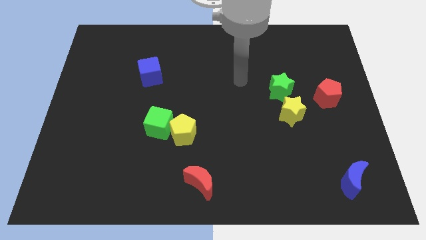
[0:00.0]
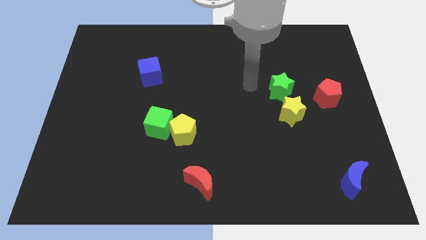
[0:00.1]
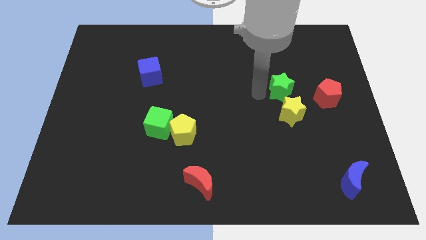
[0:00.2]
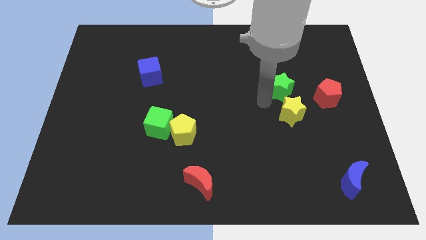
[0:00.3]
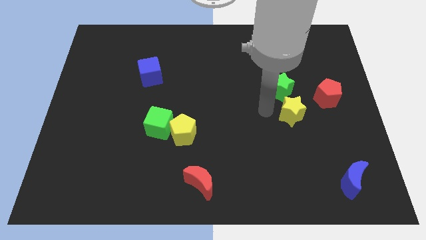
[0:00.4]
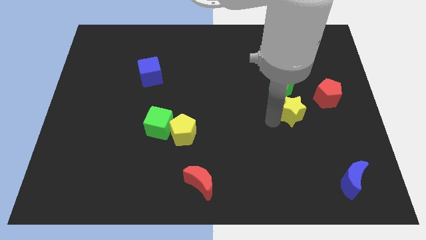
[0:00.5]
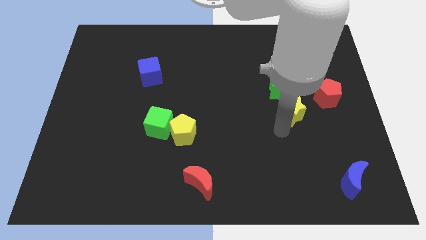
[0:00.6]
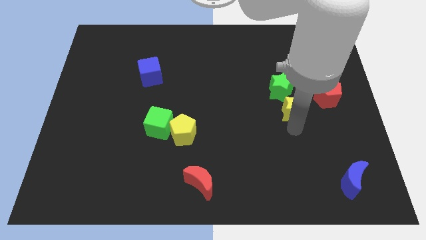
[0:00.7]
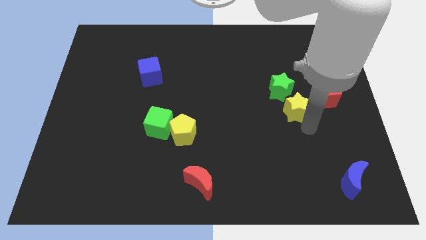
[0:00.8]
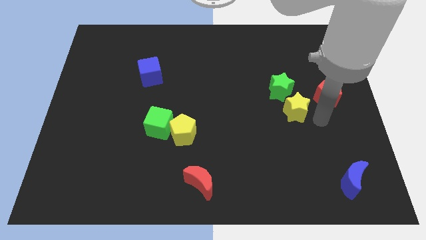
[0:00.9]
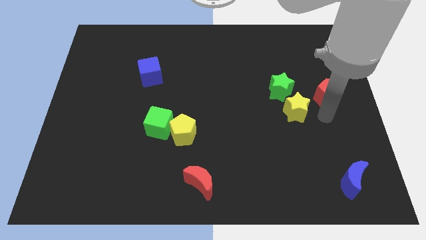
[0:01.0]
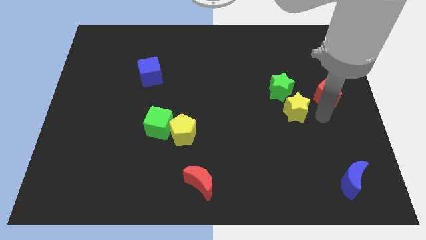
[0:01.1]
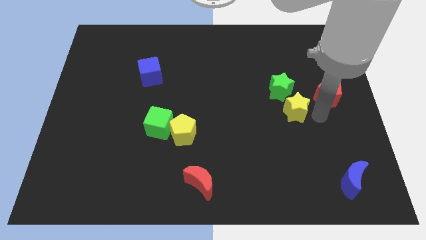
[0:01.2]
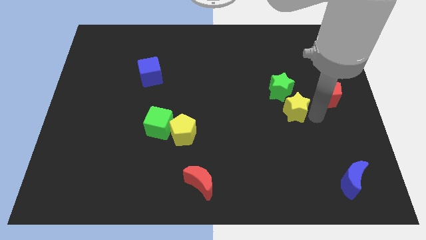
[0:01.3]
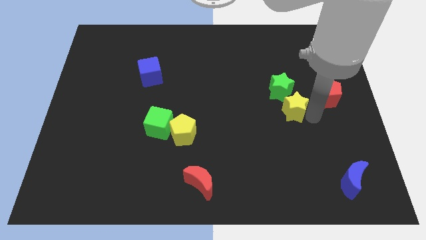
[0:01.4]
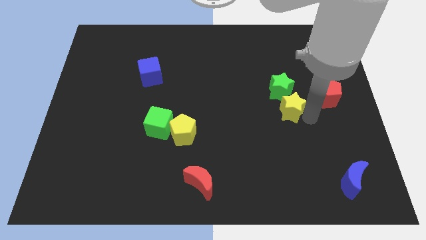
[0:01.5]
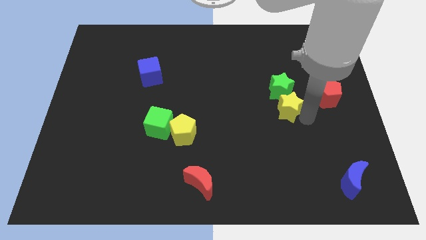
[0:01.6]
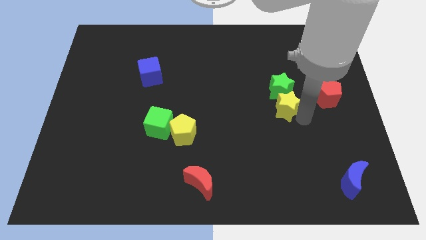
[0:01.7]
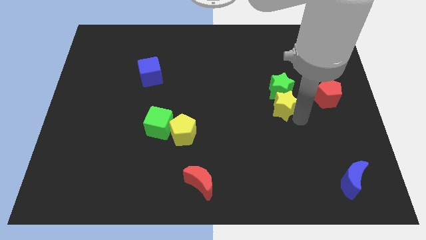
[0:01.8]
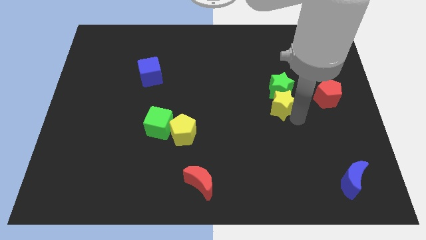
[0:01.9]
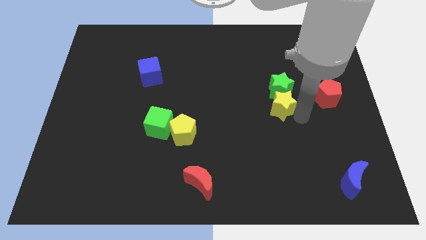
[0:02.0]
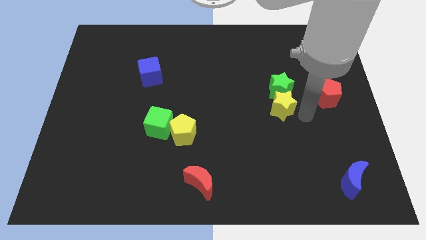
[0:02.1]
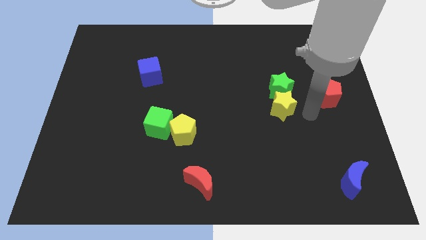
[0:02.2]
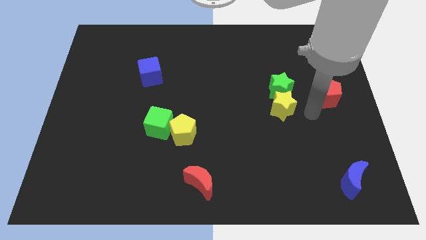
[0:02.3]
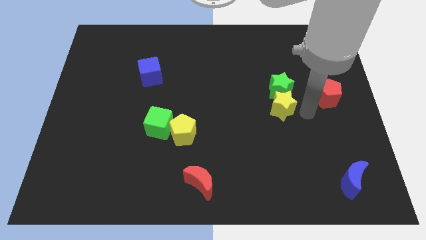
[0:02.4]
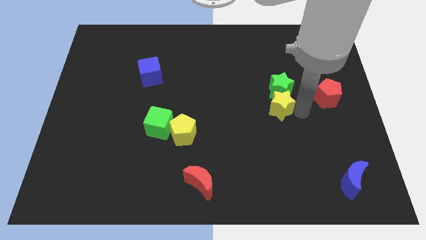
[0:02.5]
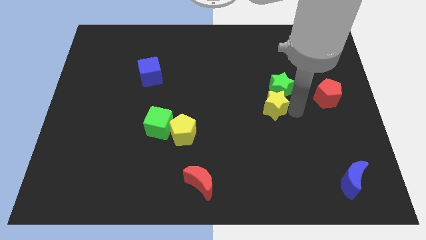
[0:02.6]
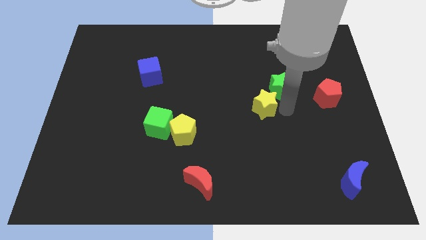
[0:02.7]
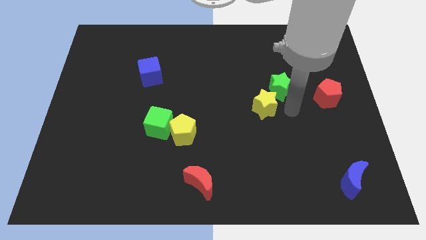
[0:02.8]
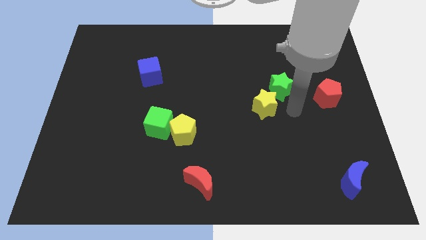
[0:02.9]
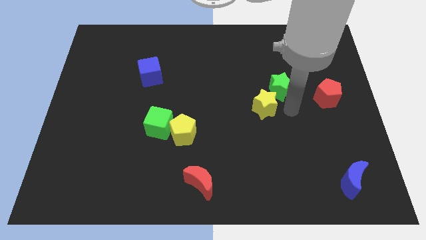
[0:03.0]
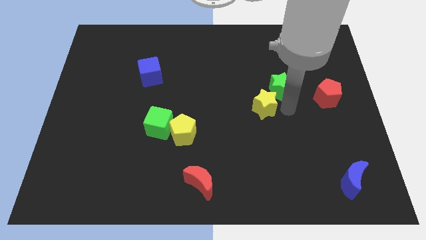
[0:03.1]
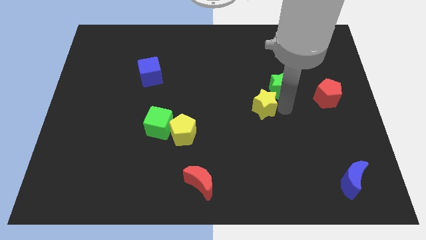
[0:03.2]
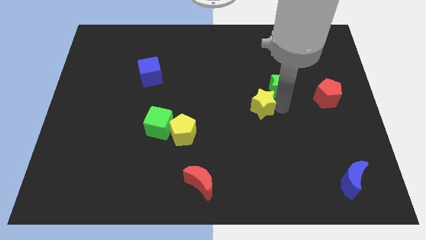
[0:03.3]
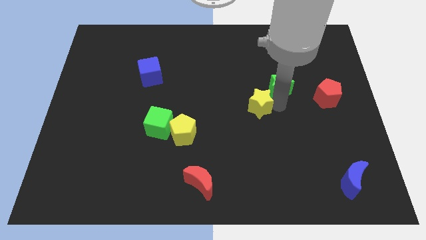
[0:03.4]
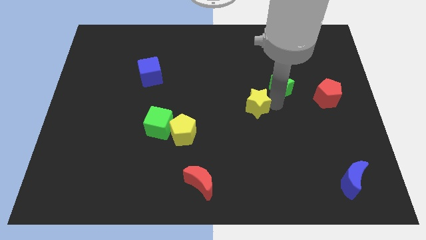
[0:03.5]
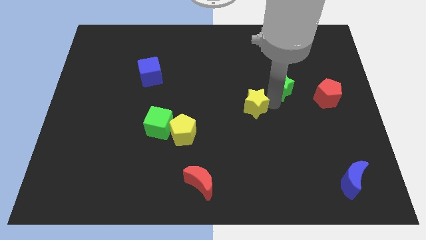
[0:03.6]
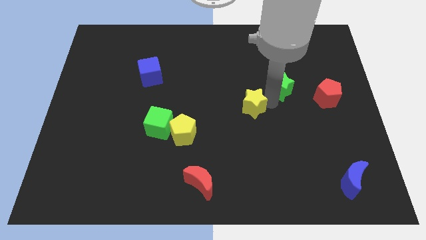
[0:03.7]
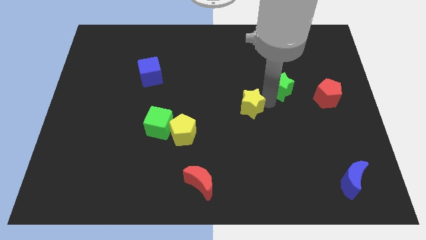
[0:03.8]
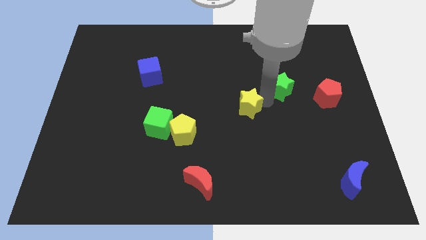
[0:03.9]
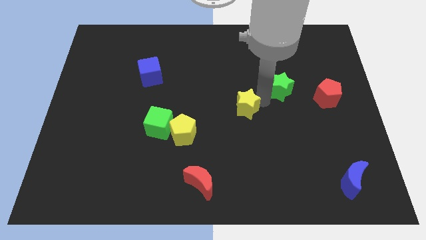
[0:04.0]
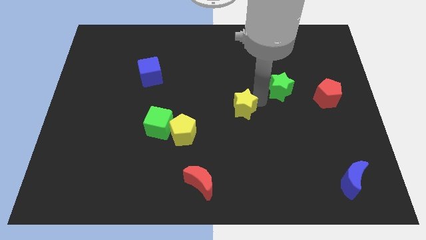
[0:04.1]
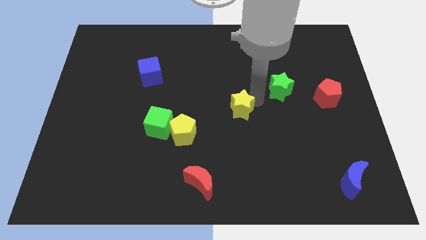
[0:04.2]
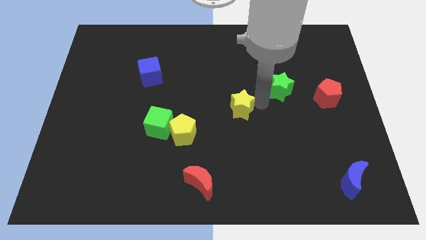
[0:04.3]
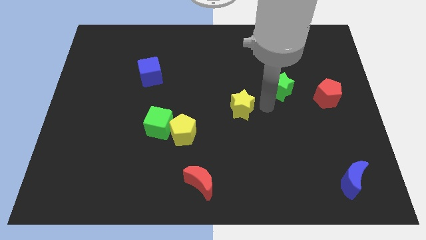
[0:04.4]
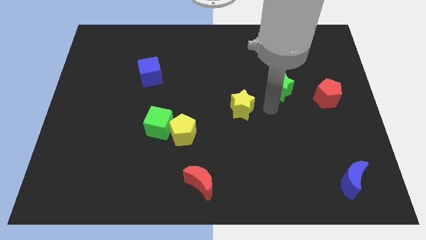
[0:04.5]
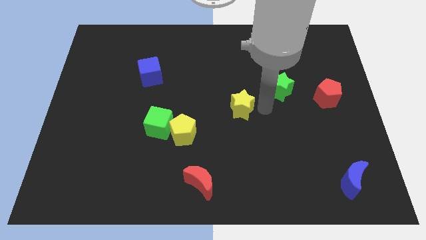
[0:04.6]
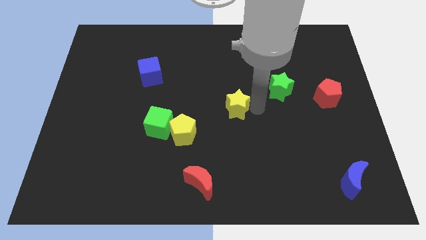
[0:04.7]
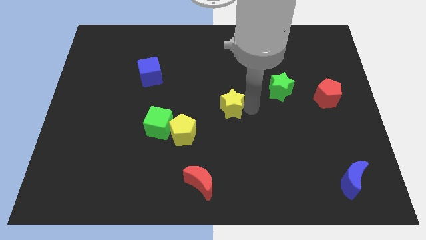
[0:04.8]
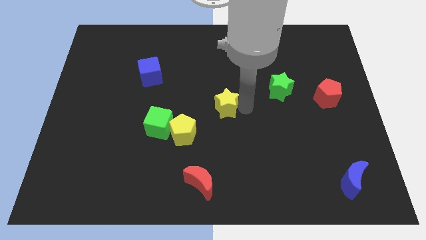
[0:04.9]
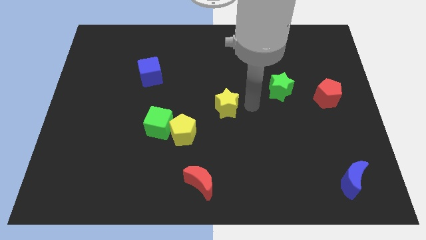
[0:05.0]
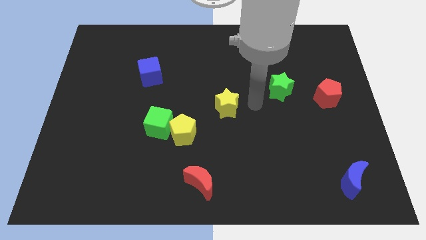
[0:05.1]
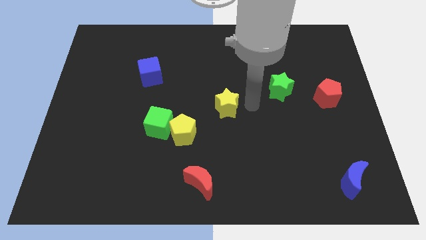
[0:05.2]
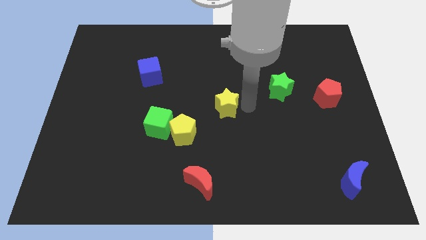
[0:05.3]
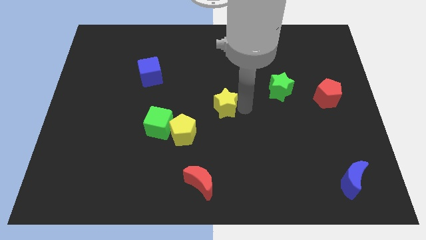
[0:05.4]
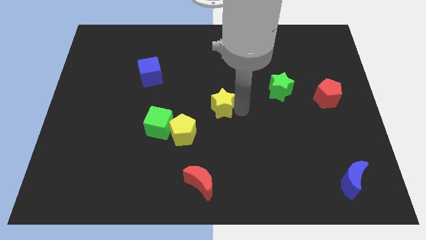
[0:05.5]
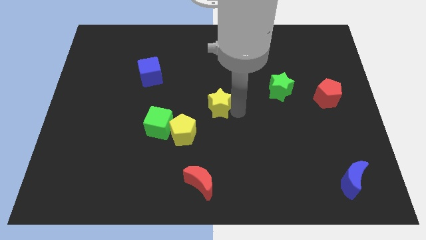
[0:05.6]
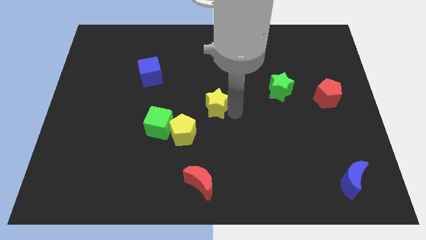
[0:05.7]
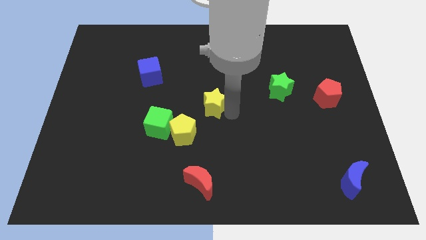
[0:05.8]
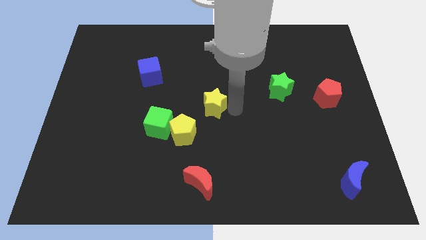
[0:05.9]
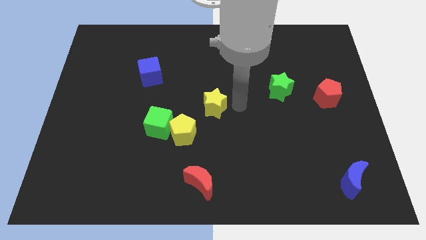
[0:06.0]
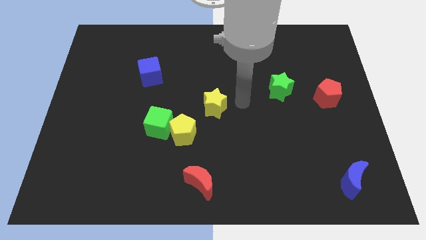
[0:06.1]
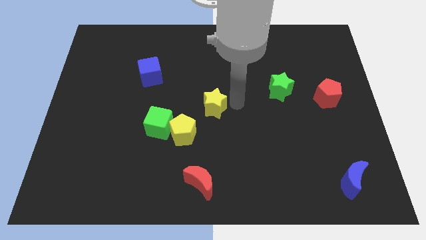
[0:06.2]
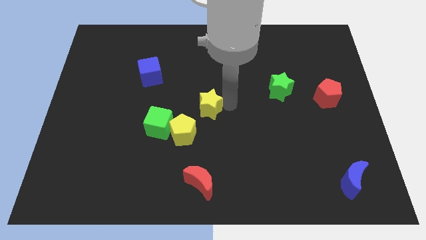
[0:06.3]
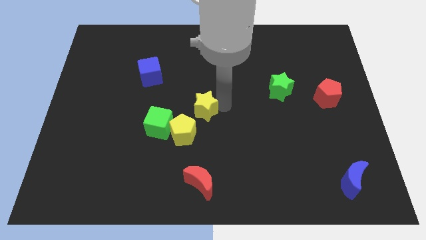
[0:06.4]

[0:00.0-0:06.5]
move the yellow star left

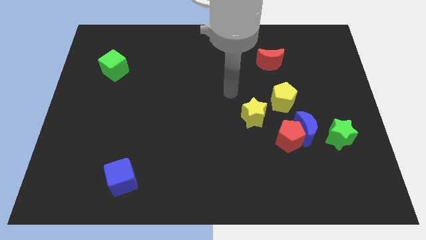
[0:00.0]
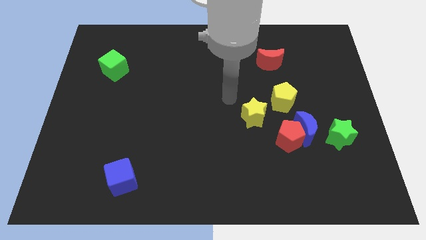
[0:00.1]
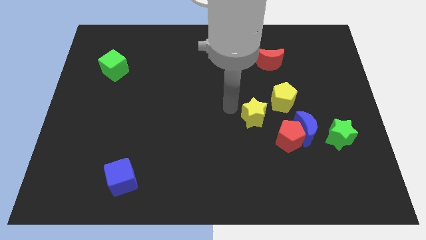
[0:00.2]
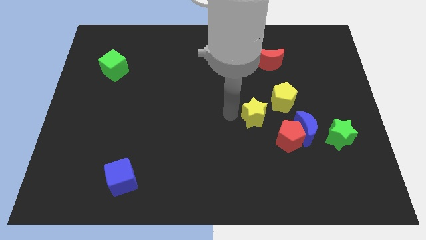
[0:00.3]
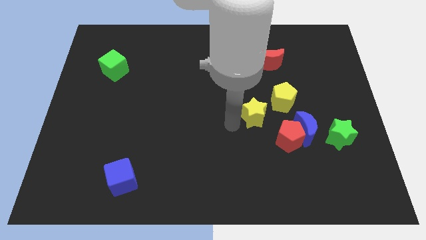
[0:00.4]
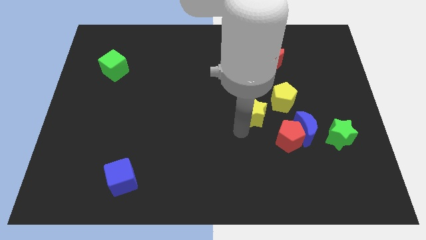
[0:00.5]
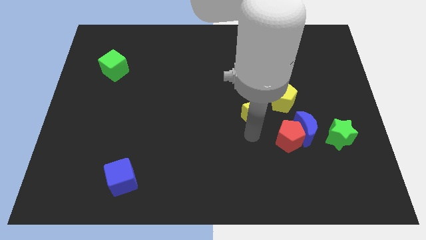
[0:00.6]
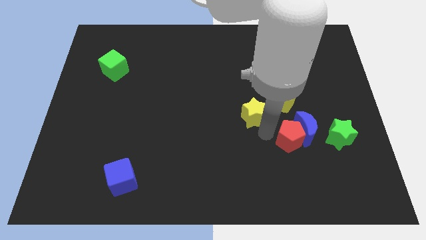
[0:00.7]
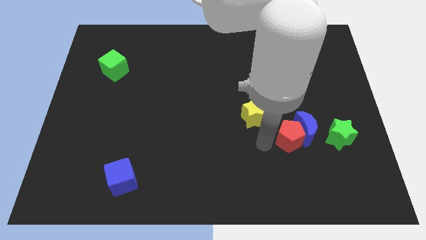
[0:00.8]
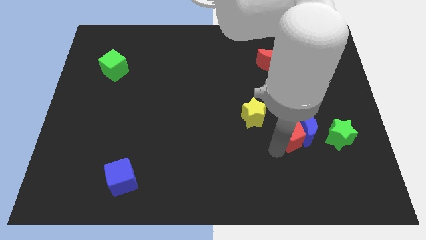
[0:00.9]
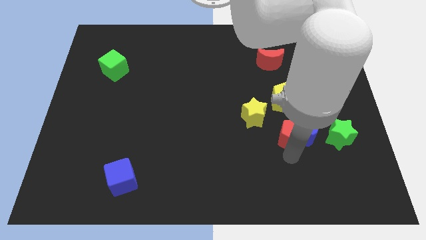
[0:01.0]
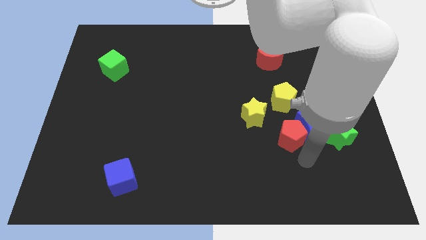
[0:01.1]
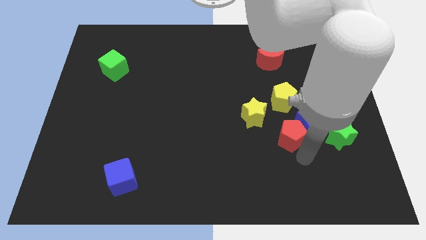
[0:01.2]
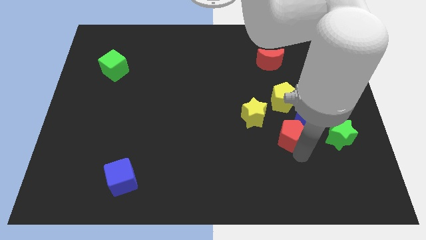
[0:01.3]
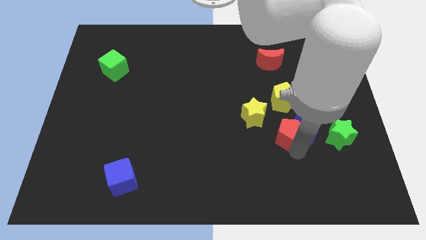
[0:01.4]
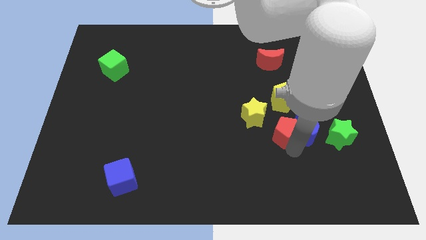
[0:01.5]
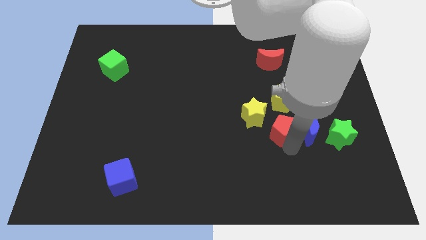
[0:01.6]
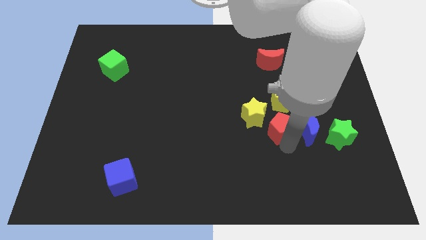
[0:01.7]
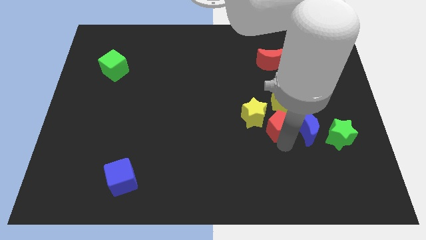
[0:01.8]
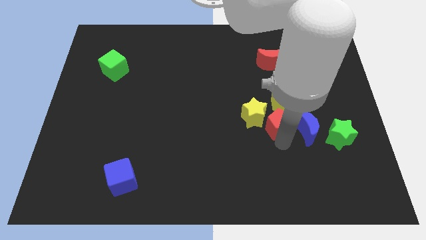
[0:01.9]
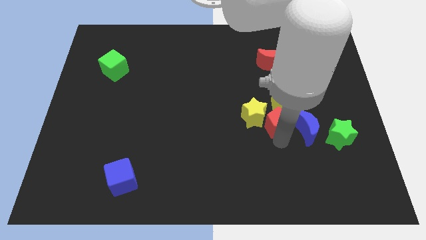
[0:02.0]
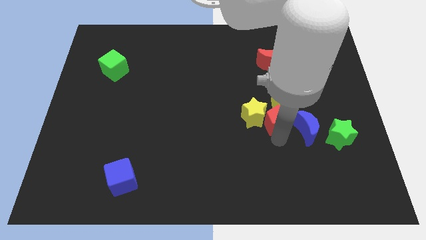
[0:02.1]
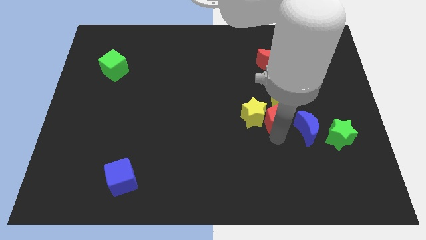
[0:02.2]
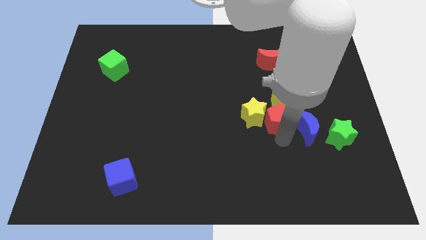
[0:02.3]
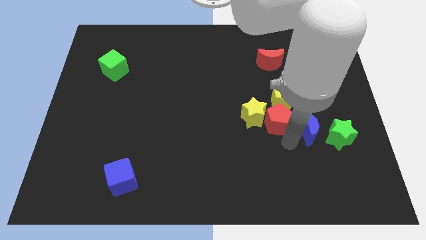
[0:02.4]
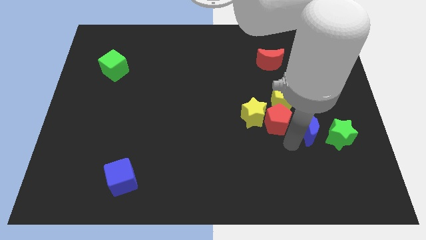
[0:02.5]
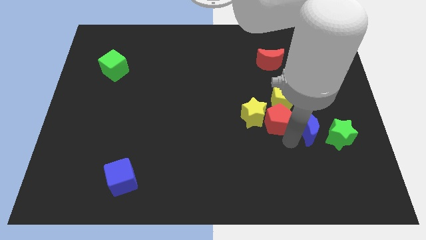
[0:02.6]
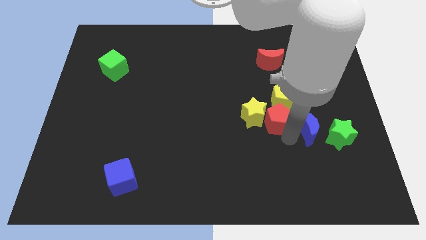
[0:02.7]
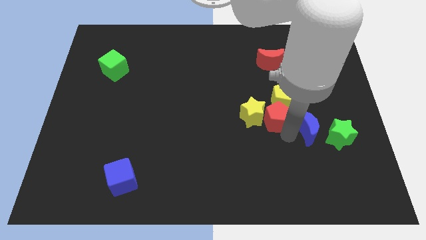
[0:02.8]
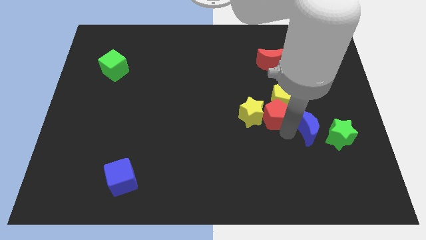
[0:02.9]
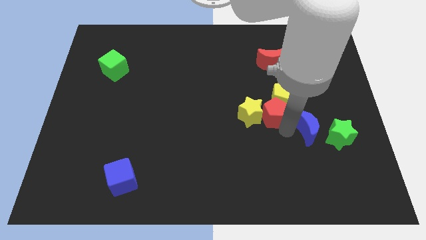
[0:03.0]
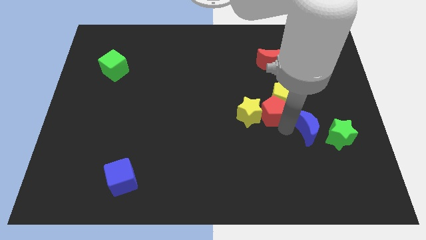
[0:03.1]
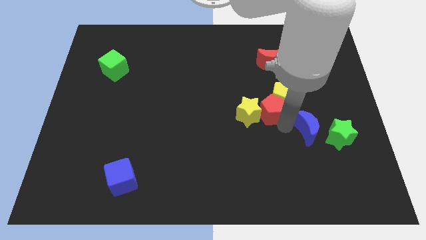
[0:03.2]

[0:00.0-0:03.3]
slightly move the red pentagon upwards
